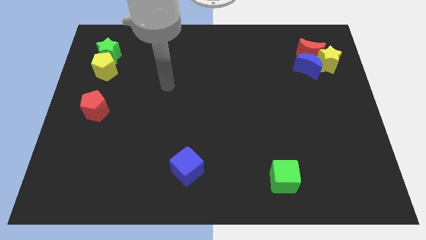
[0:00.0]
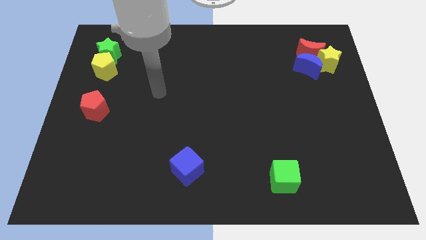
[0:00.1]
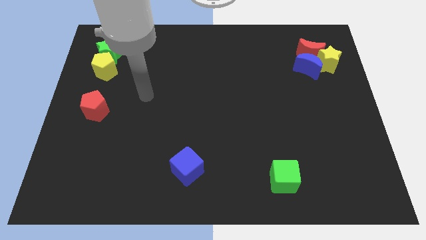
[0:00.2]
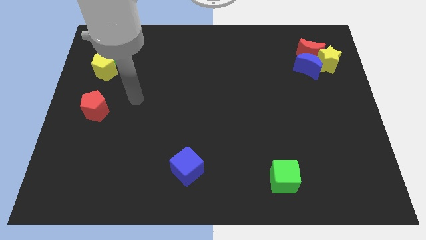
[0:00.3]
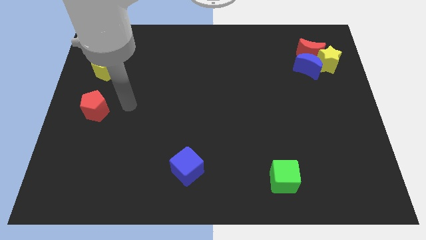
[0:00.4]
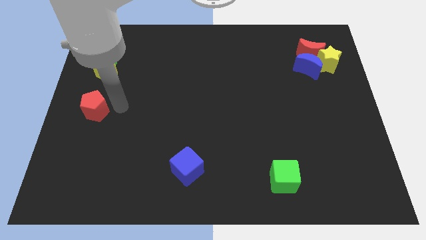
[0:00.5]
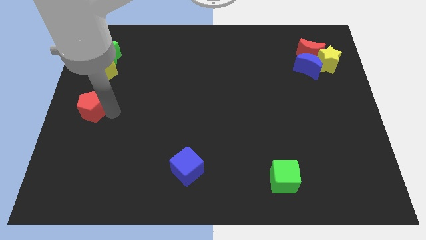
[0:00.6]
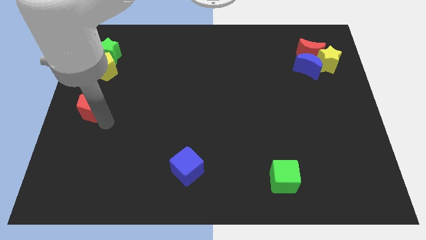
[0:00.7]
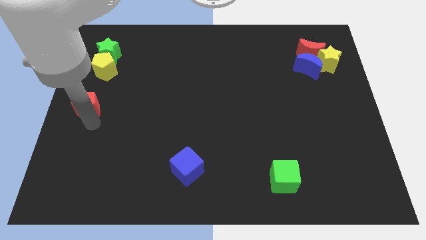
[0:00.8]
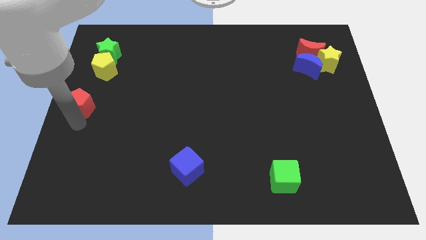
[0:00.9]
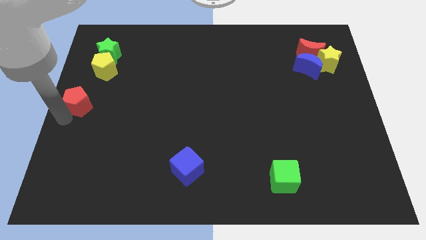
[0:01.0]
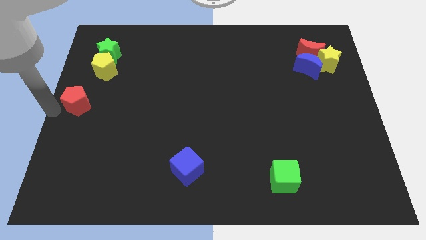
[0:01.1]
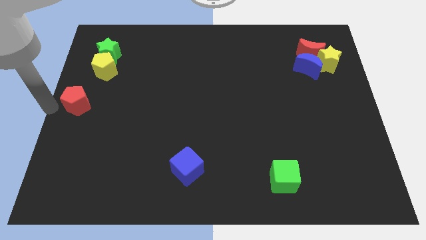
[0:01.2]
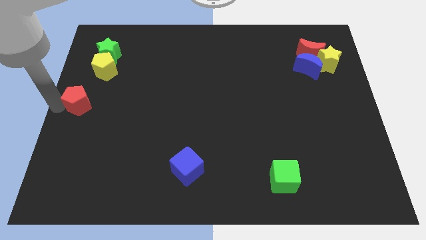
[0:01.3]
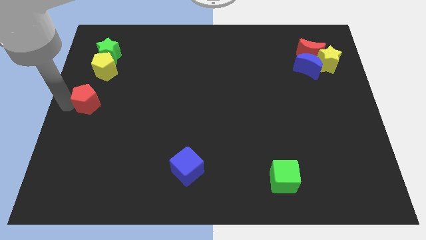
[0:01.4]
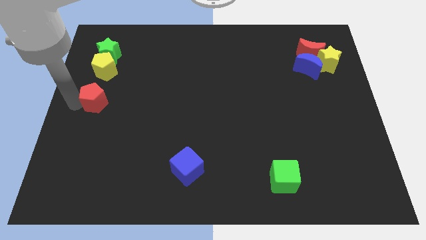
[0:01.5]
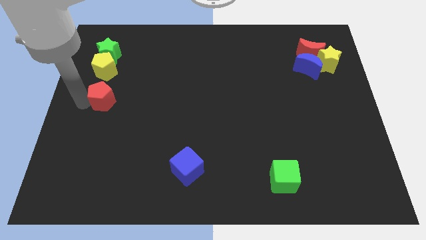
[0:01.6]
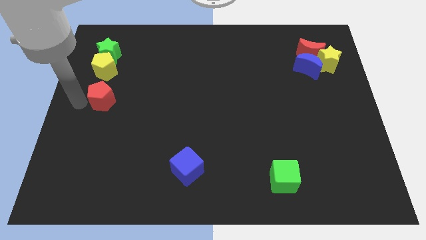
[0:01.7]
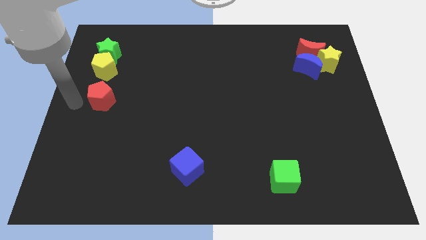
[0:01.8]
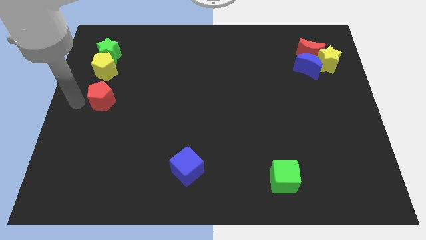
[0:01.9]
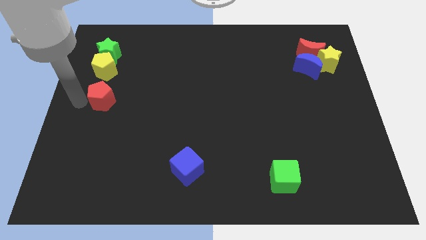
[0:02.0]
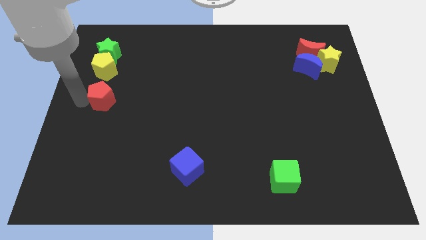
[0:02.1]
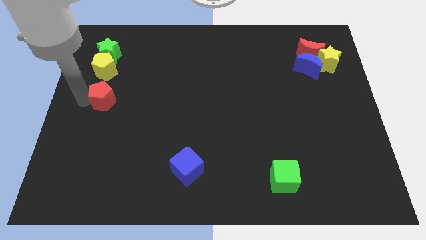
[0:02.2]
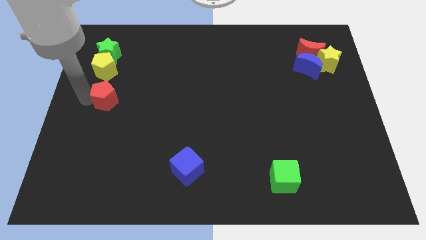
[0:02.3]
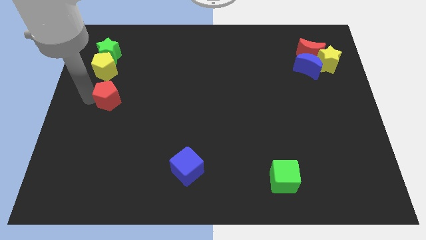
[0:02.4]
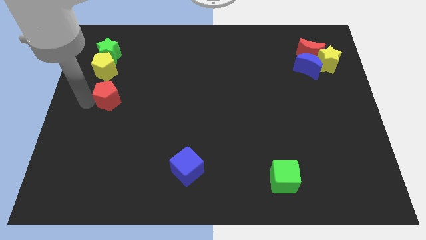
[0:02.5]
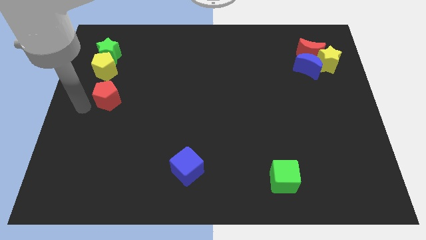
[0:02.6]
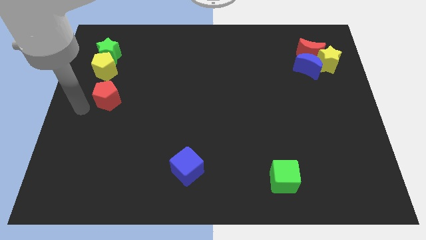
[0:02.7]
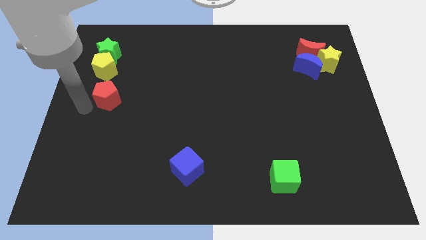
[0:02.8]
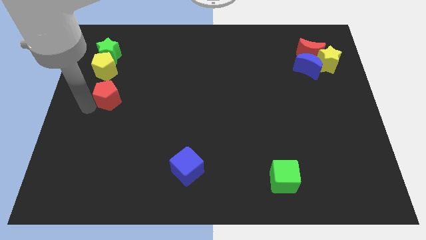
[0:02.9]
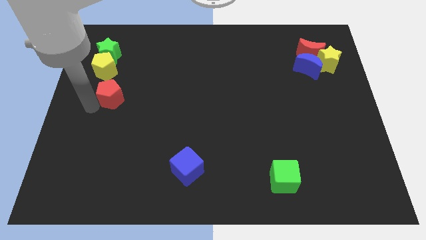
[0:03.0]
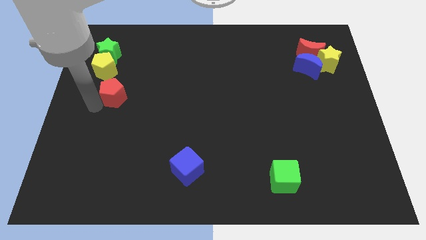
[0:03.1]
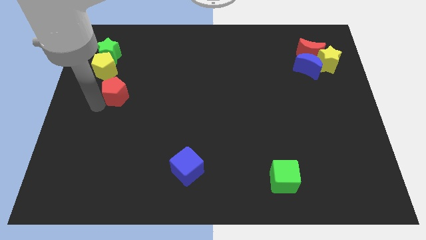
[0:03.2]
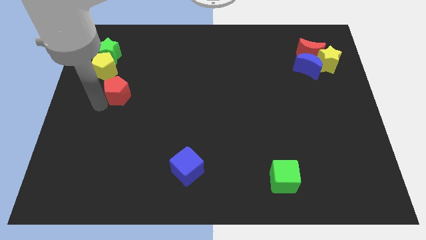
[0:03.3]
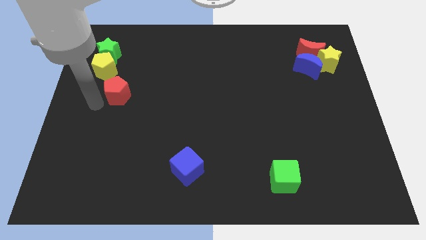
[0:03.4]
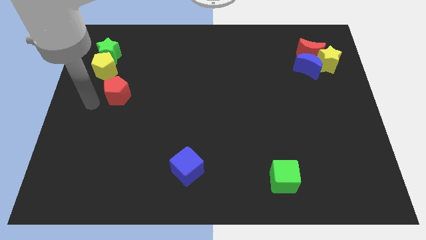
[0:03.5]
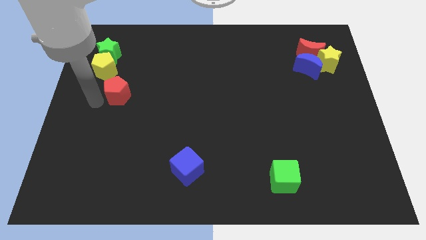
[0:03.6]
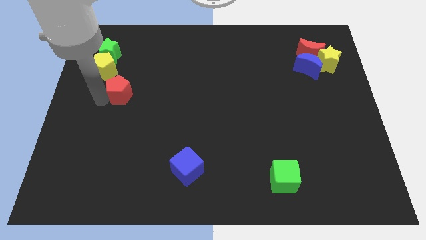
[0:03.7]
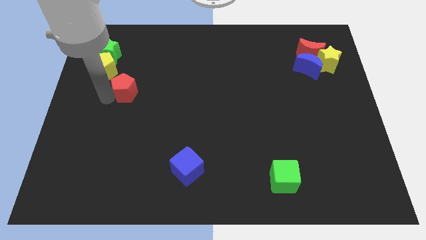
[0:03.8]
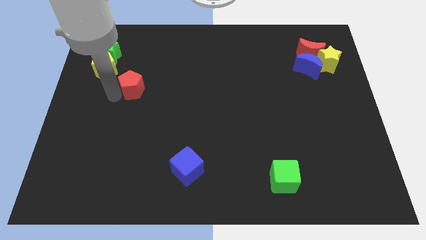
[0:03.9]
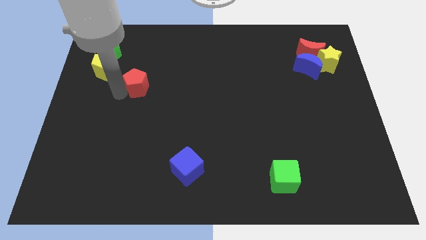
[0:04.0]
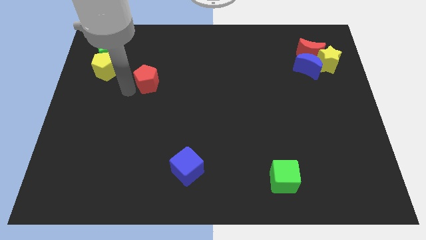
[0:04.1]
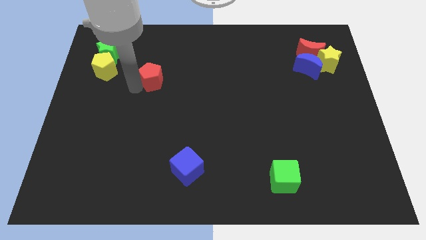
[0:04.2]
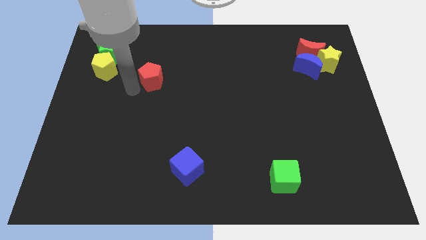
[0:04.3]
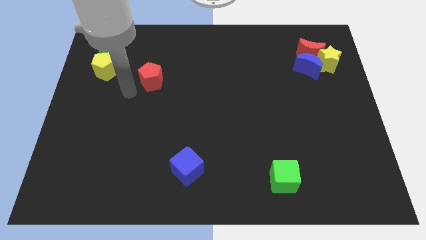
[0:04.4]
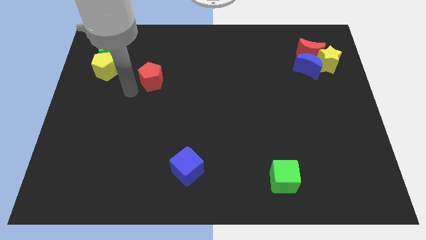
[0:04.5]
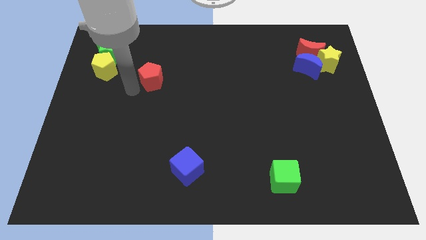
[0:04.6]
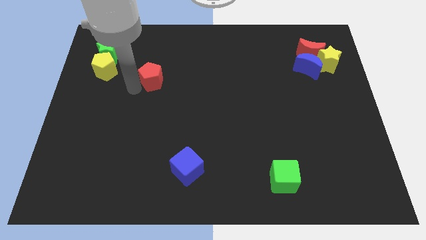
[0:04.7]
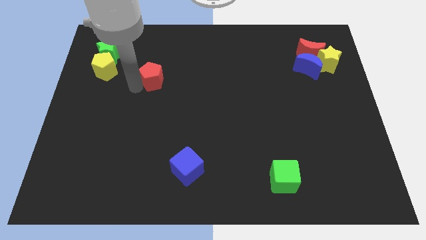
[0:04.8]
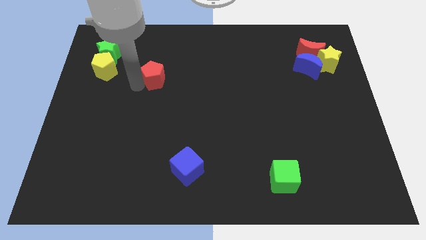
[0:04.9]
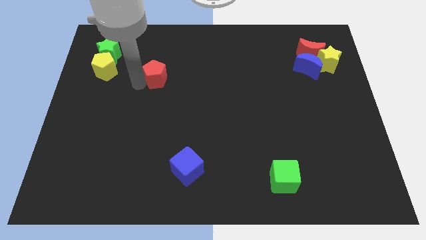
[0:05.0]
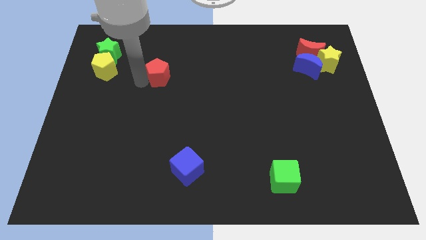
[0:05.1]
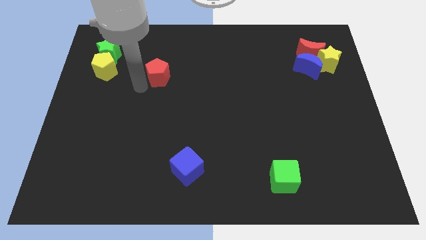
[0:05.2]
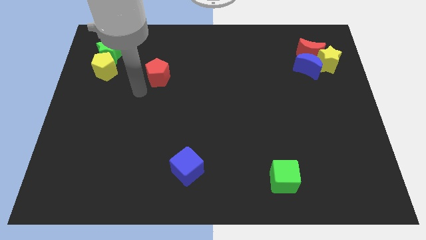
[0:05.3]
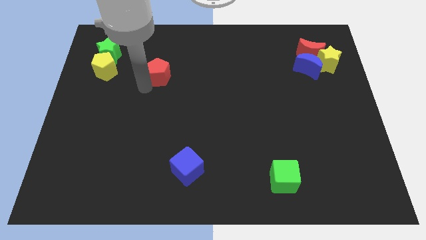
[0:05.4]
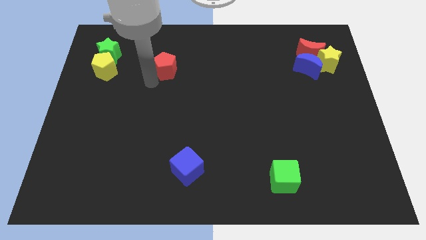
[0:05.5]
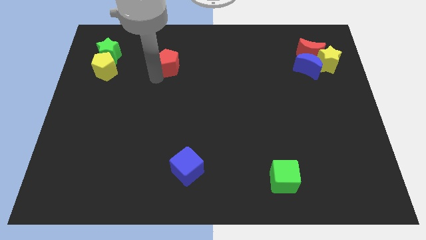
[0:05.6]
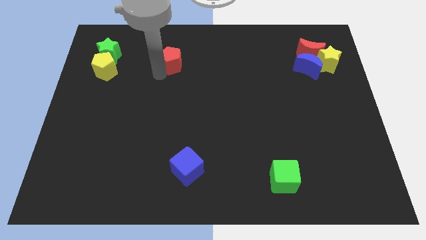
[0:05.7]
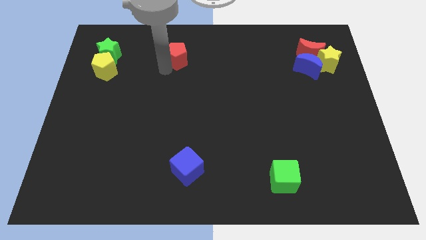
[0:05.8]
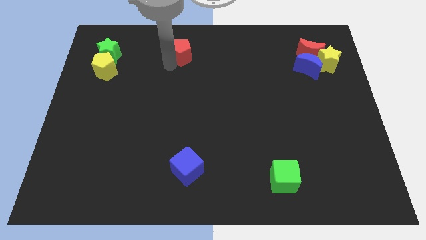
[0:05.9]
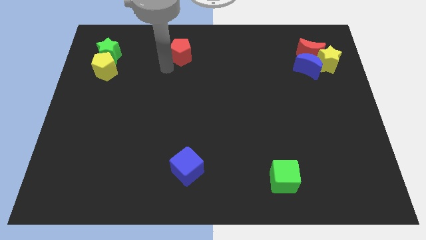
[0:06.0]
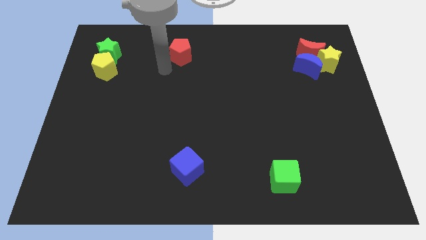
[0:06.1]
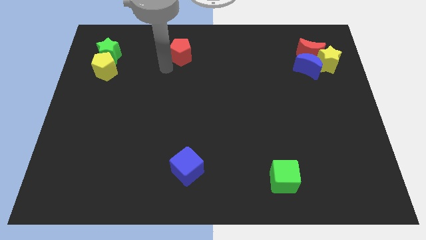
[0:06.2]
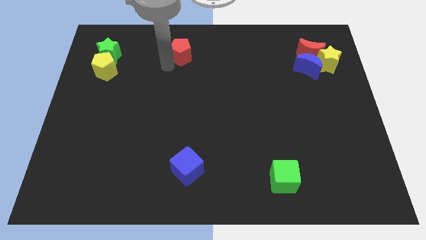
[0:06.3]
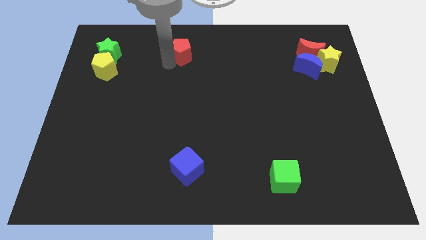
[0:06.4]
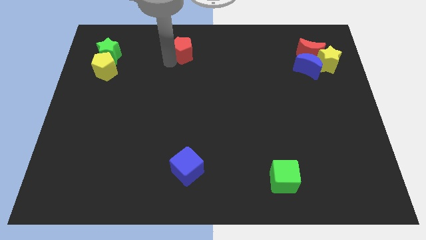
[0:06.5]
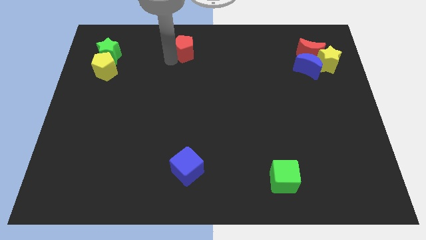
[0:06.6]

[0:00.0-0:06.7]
move the red pentagon to the top
